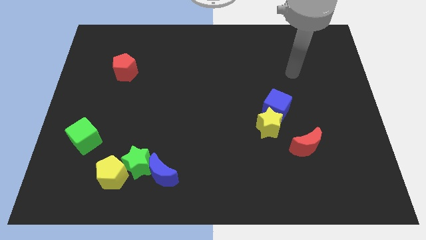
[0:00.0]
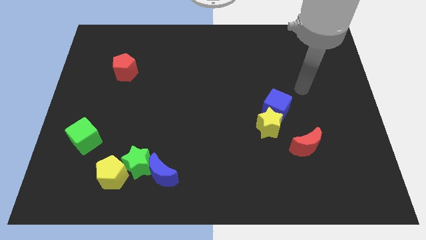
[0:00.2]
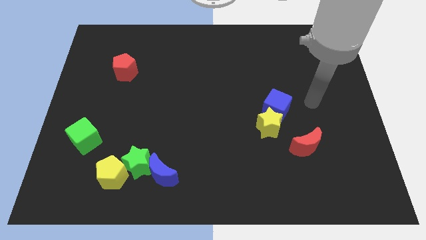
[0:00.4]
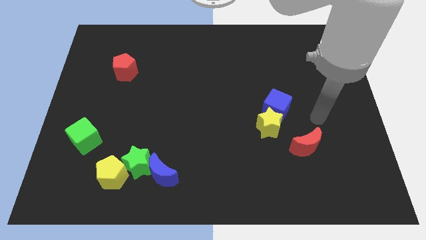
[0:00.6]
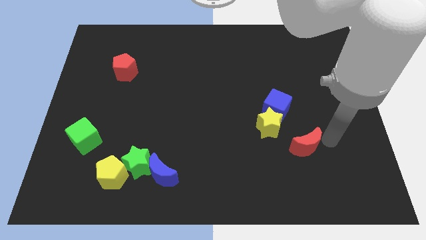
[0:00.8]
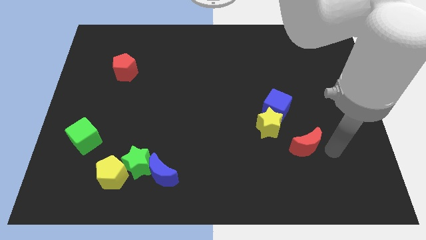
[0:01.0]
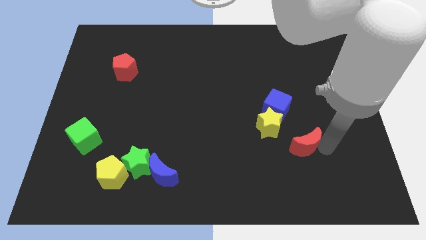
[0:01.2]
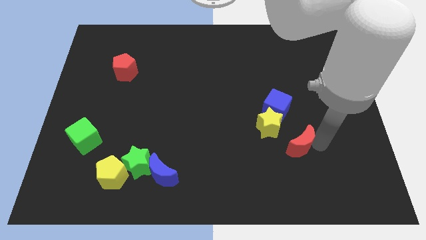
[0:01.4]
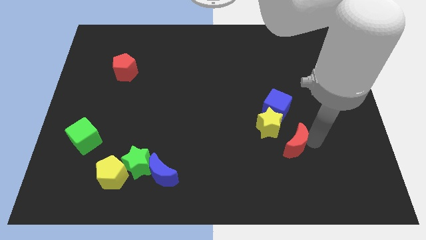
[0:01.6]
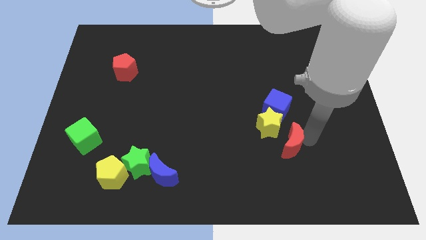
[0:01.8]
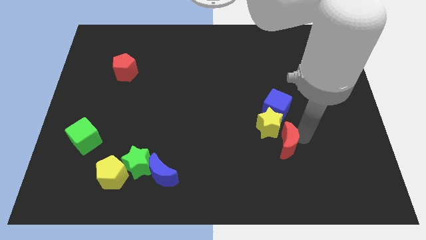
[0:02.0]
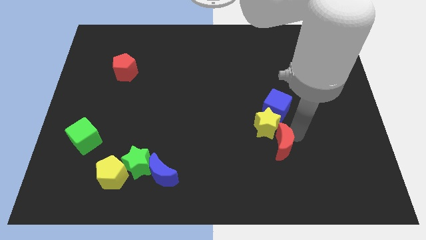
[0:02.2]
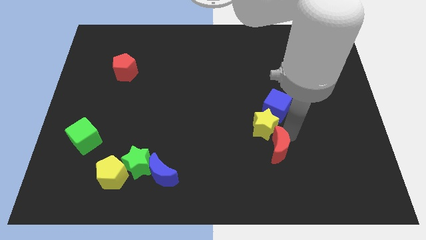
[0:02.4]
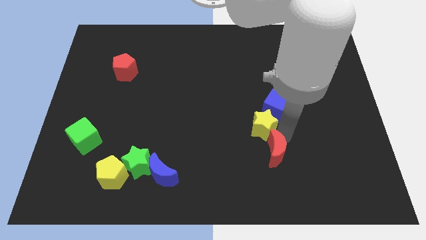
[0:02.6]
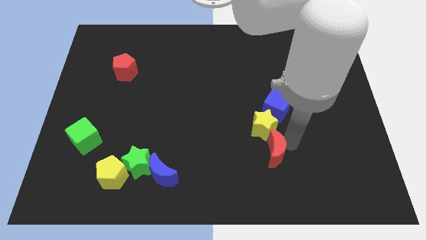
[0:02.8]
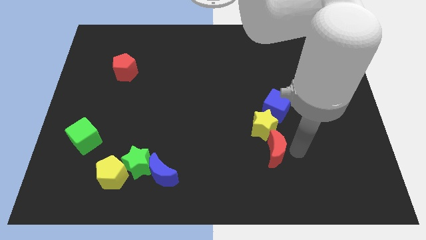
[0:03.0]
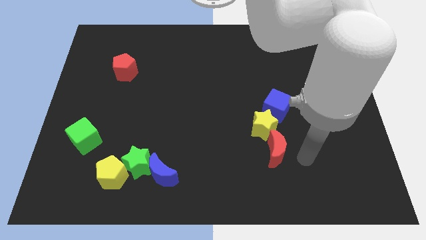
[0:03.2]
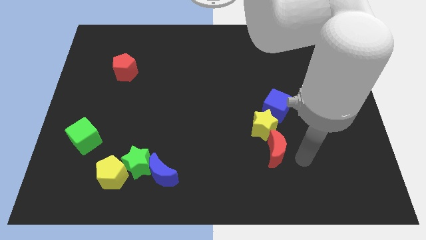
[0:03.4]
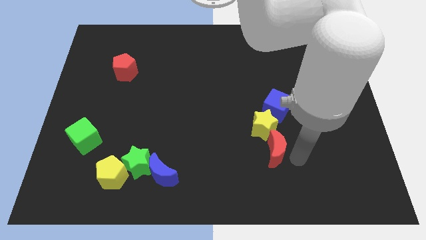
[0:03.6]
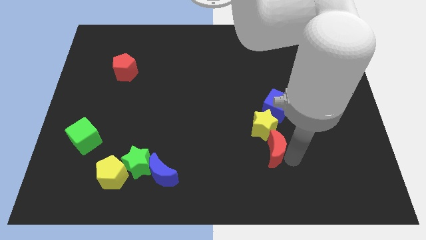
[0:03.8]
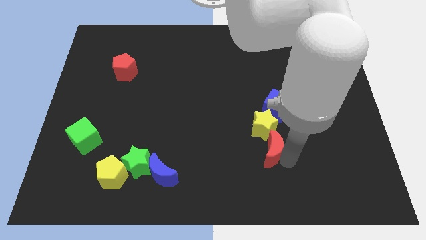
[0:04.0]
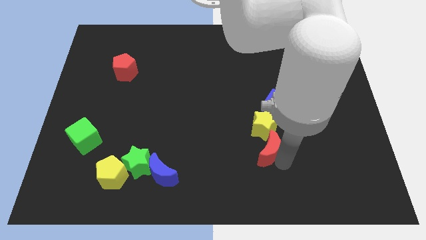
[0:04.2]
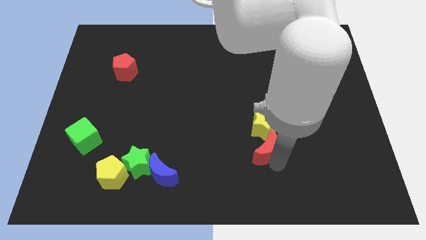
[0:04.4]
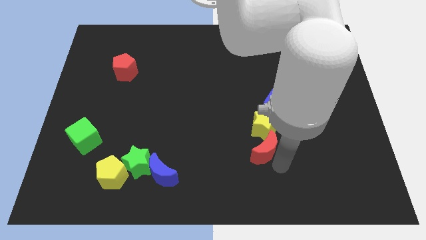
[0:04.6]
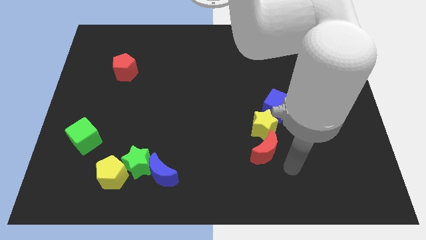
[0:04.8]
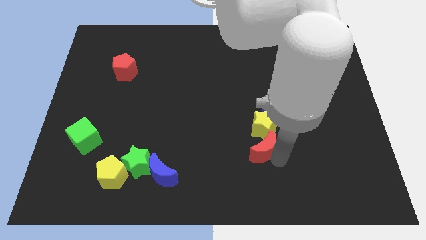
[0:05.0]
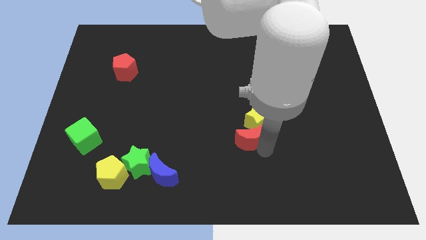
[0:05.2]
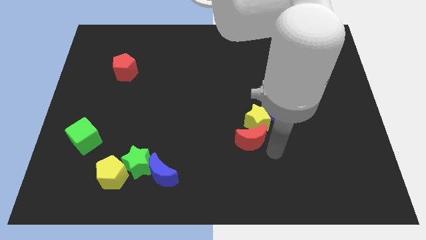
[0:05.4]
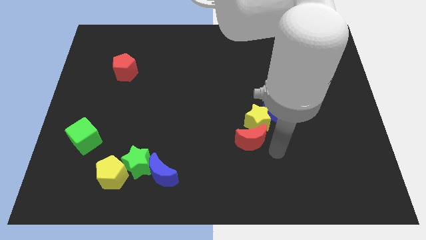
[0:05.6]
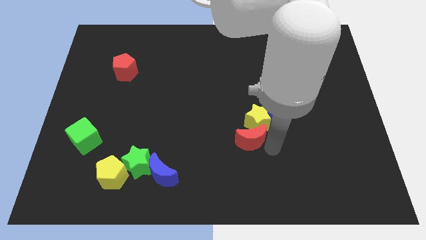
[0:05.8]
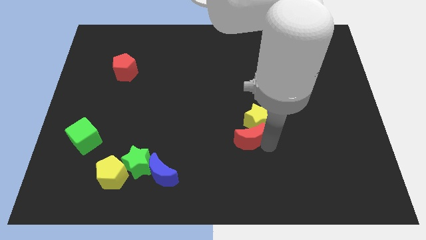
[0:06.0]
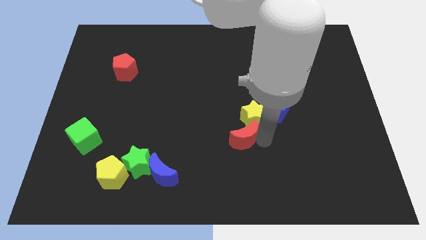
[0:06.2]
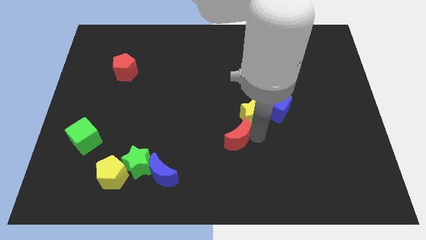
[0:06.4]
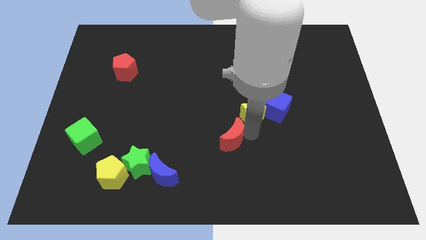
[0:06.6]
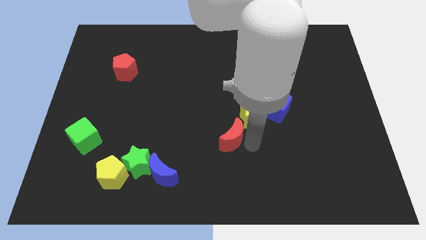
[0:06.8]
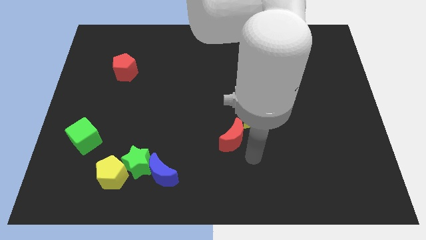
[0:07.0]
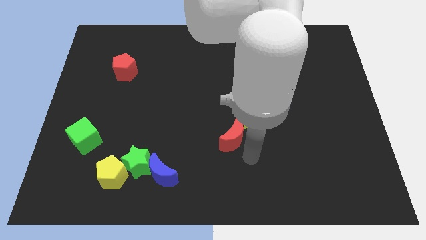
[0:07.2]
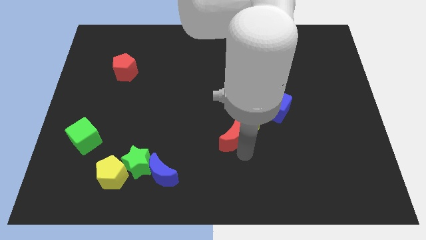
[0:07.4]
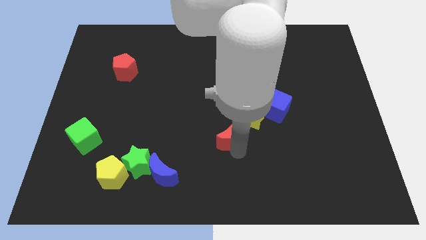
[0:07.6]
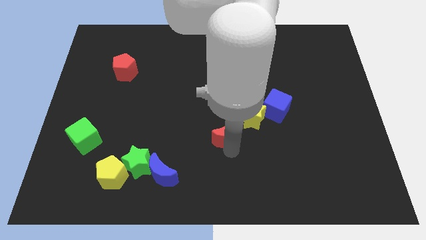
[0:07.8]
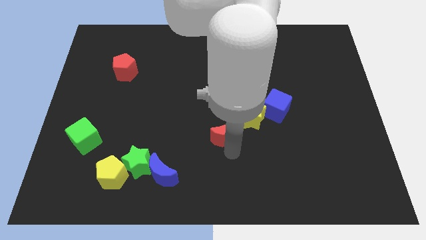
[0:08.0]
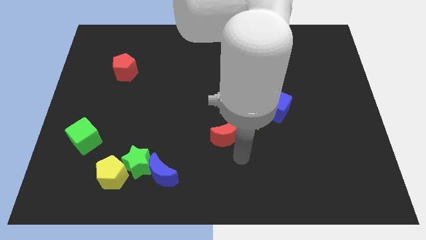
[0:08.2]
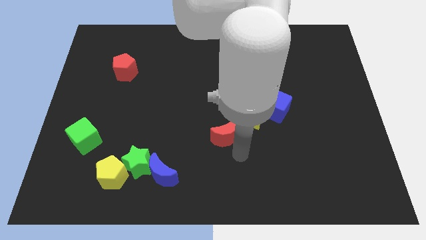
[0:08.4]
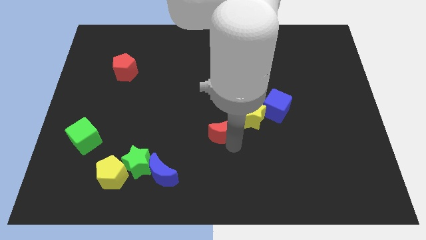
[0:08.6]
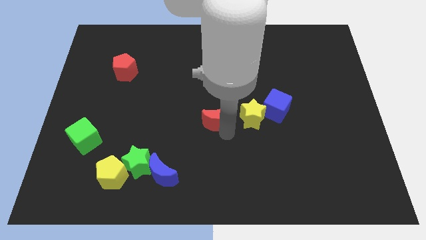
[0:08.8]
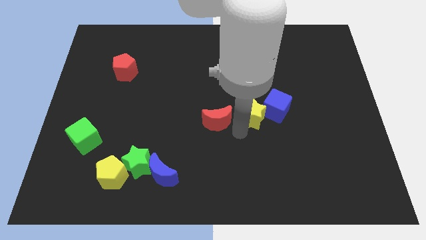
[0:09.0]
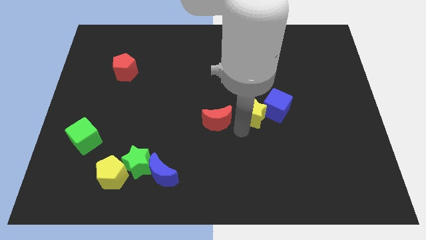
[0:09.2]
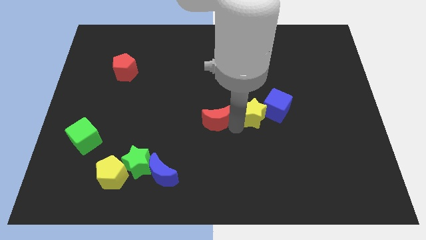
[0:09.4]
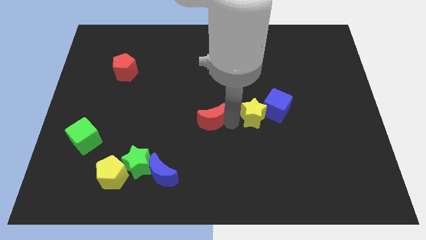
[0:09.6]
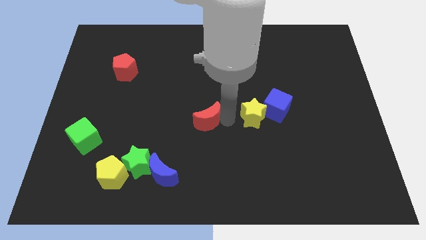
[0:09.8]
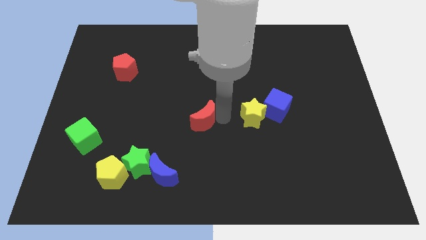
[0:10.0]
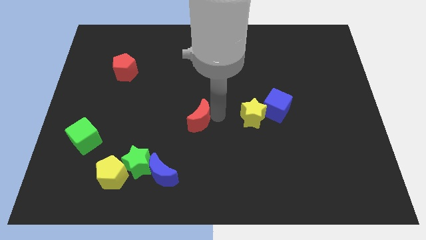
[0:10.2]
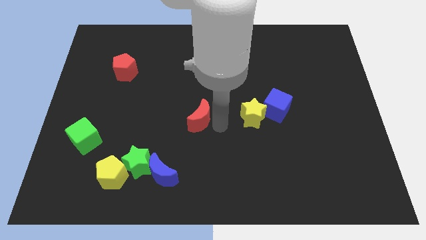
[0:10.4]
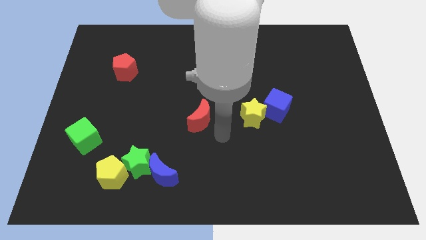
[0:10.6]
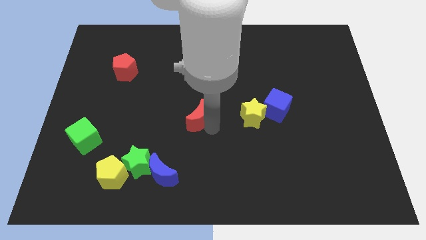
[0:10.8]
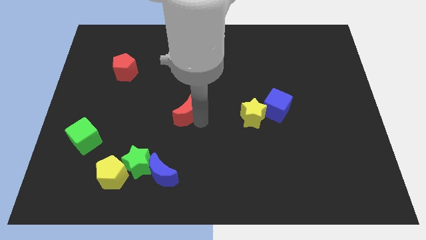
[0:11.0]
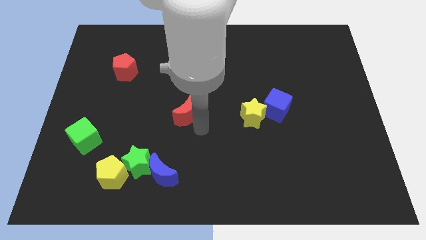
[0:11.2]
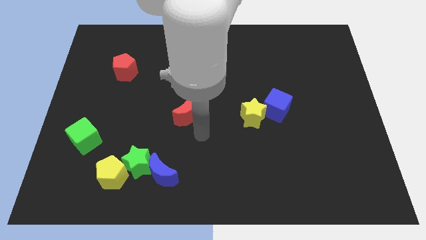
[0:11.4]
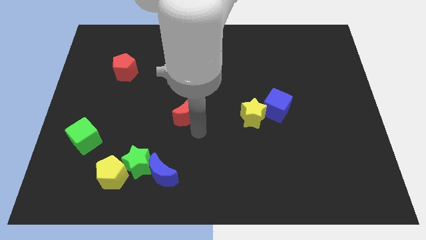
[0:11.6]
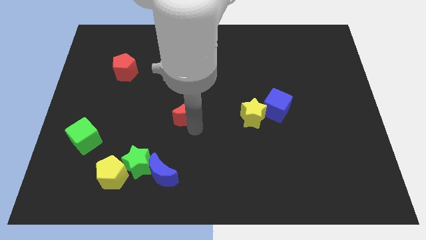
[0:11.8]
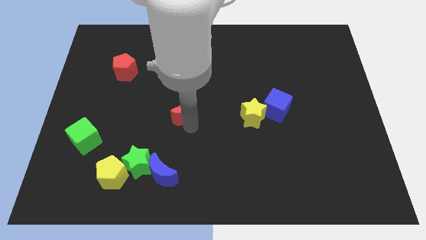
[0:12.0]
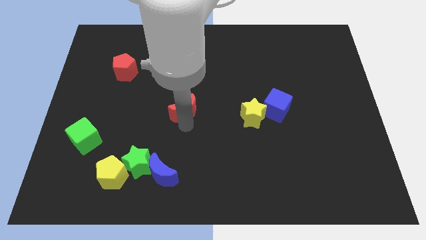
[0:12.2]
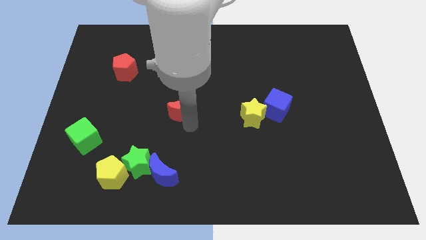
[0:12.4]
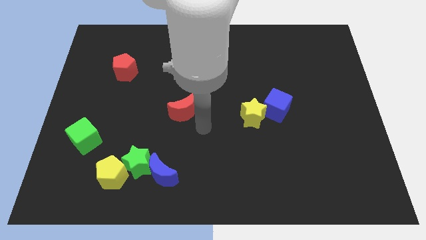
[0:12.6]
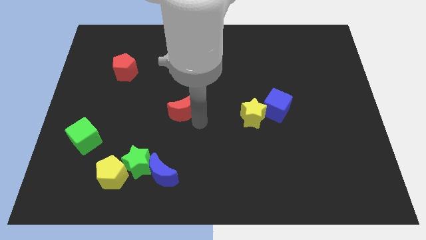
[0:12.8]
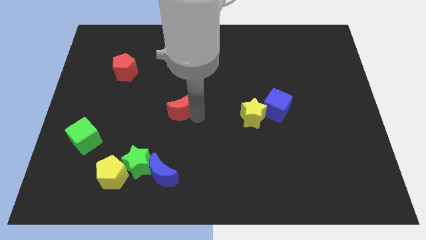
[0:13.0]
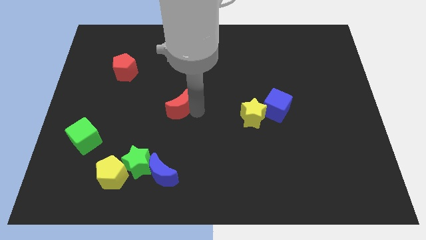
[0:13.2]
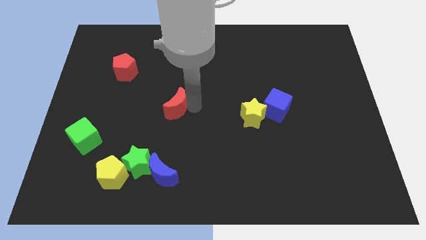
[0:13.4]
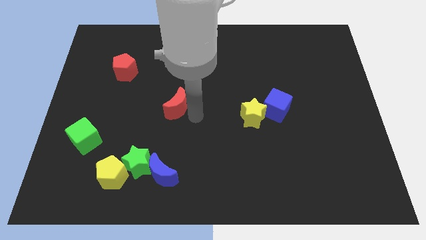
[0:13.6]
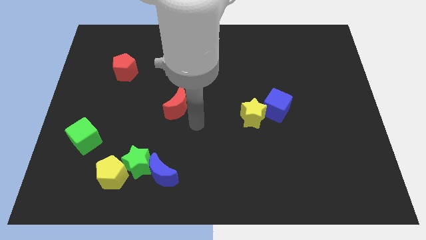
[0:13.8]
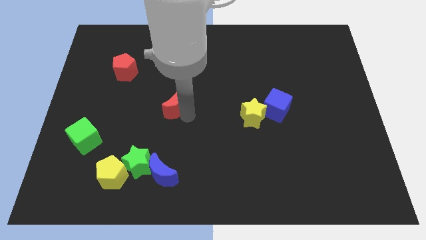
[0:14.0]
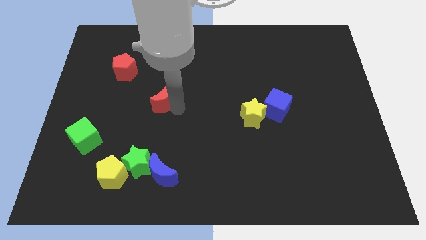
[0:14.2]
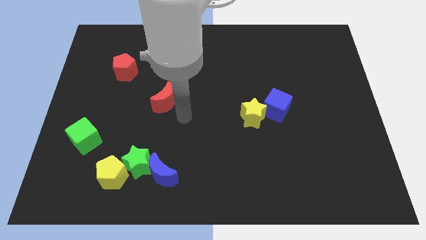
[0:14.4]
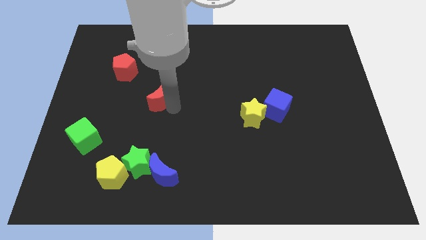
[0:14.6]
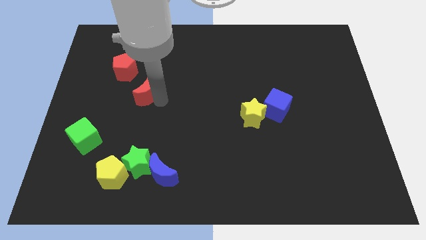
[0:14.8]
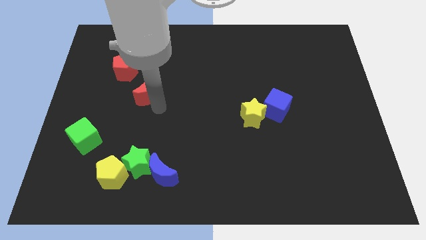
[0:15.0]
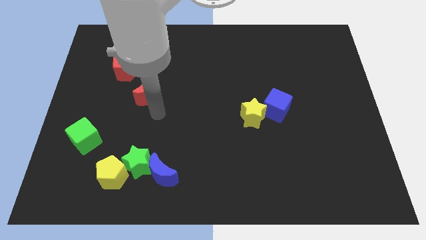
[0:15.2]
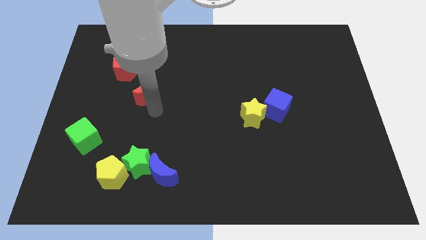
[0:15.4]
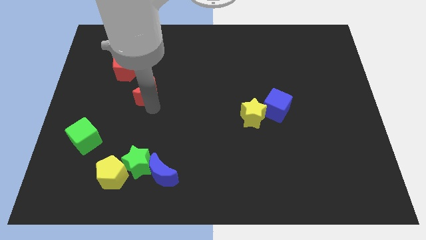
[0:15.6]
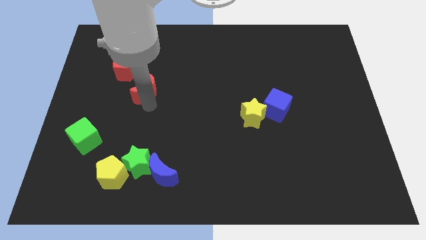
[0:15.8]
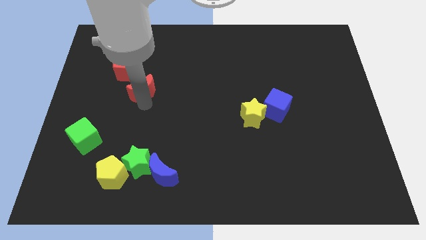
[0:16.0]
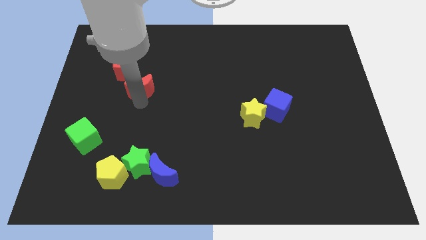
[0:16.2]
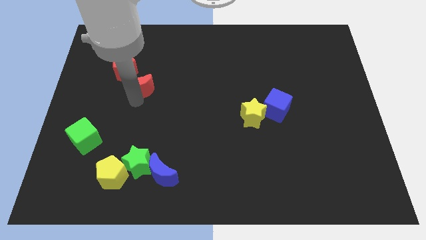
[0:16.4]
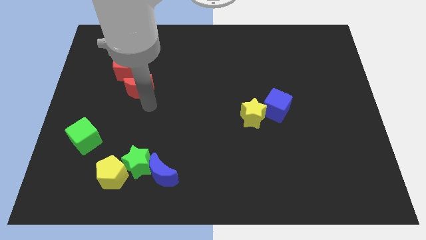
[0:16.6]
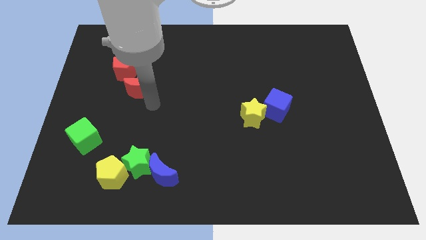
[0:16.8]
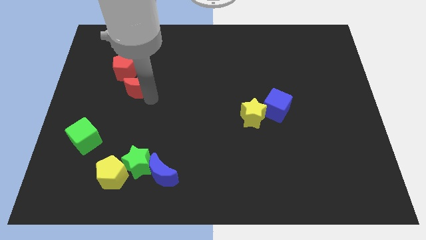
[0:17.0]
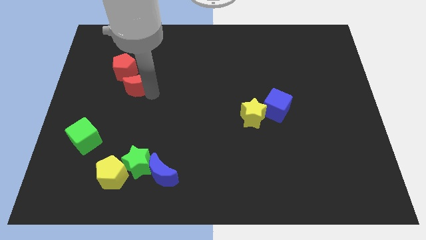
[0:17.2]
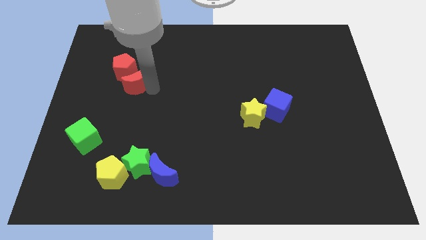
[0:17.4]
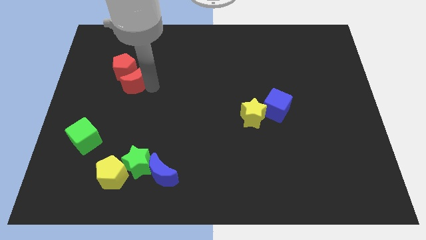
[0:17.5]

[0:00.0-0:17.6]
slide the red moon close to the red pentagon
